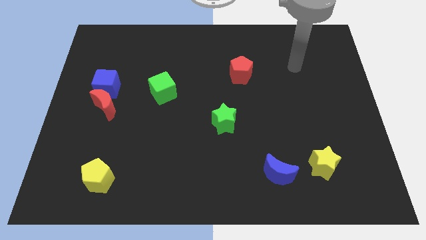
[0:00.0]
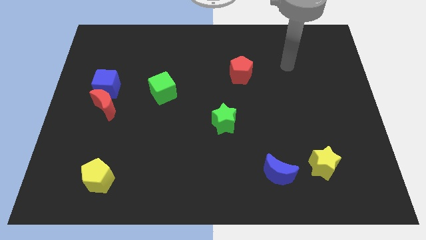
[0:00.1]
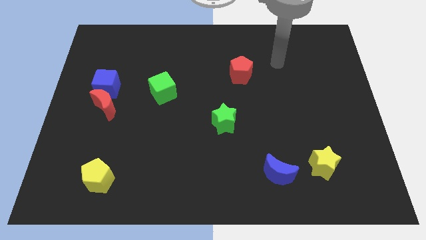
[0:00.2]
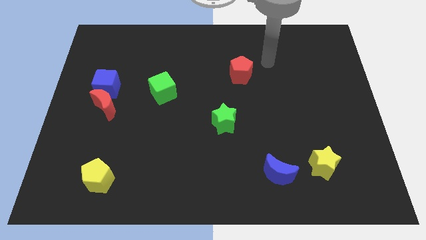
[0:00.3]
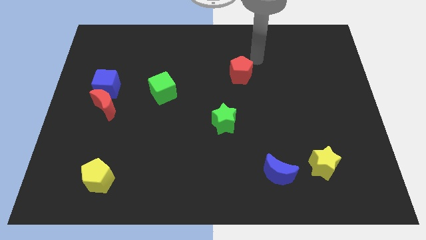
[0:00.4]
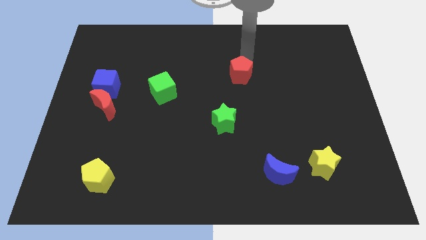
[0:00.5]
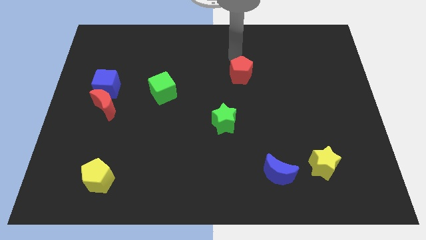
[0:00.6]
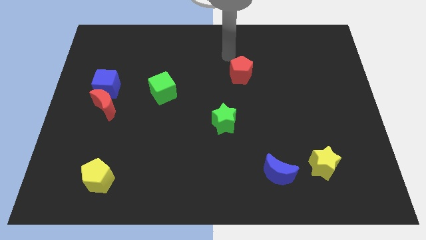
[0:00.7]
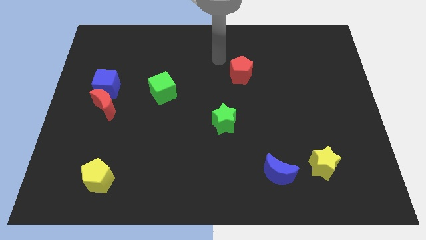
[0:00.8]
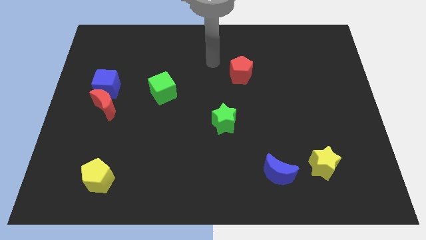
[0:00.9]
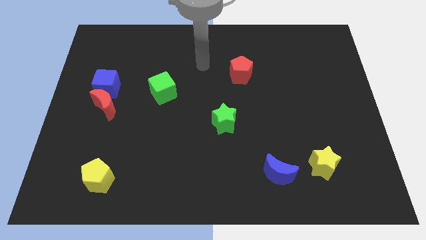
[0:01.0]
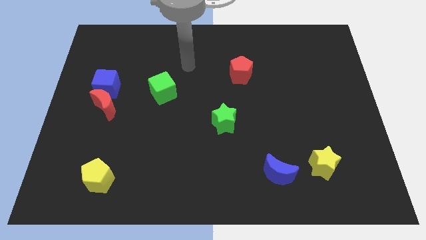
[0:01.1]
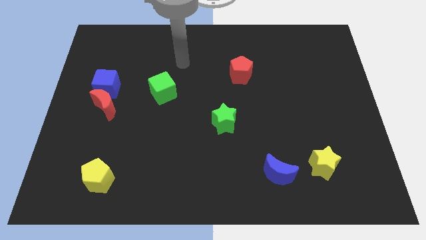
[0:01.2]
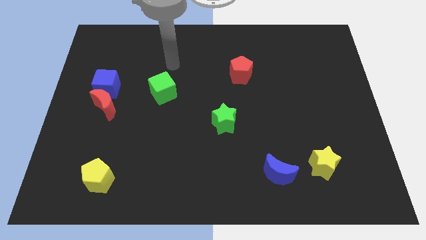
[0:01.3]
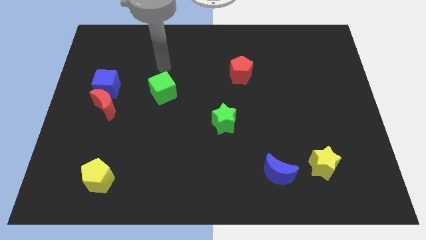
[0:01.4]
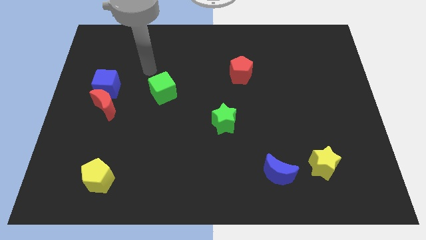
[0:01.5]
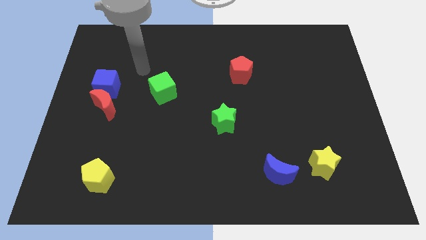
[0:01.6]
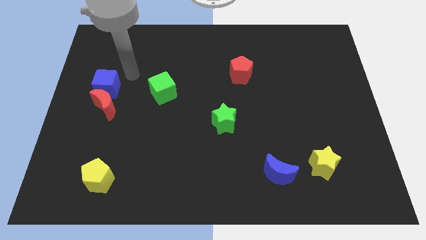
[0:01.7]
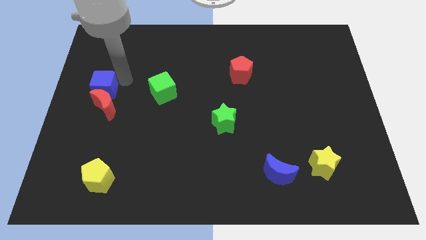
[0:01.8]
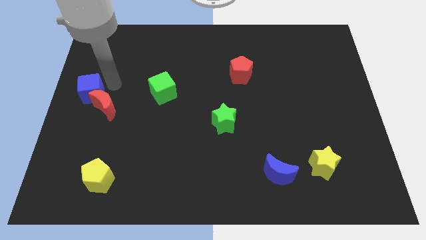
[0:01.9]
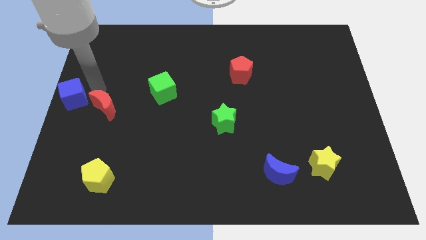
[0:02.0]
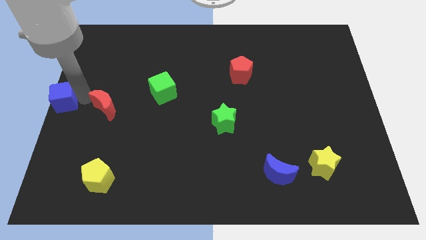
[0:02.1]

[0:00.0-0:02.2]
move the red moon away from the blue cube

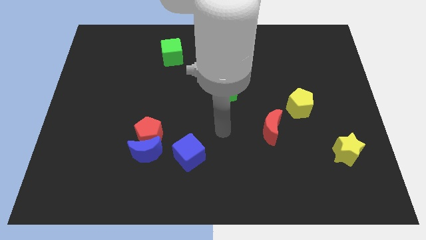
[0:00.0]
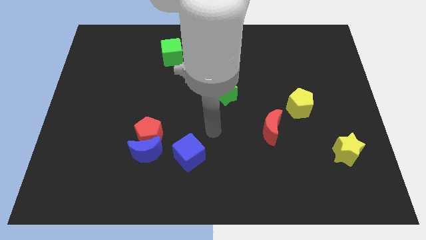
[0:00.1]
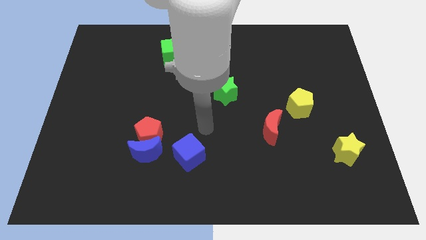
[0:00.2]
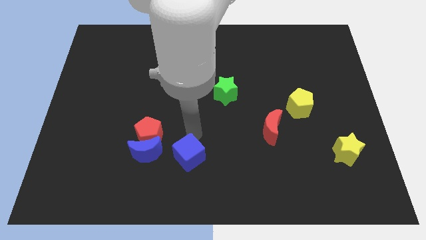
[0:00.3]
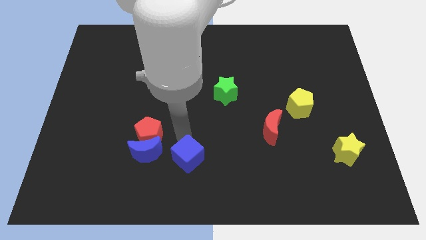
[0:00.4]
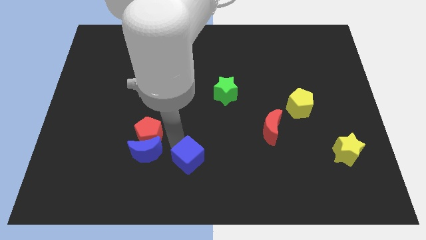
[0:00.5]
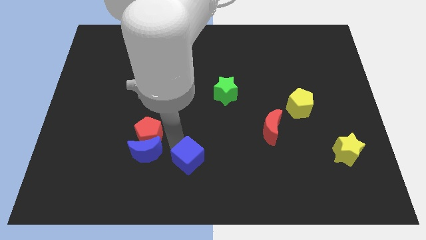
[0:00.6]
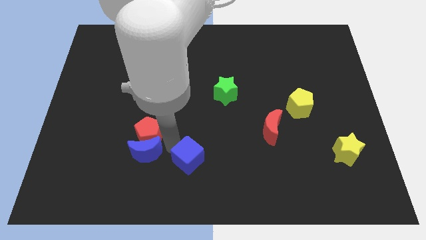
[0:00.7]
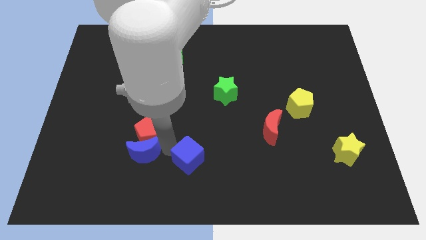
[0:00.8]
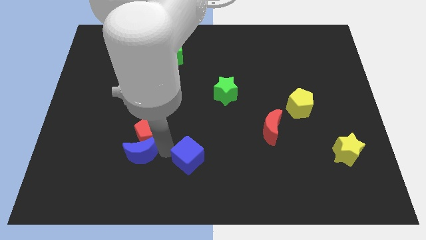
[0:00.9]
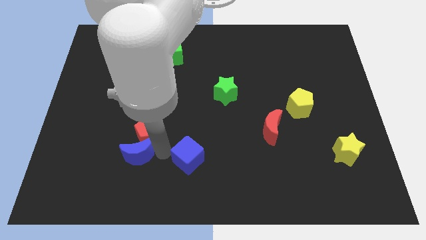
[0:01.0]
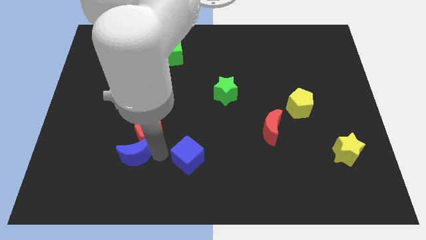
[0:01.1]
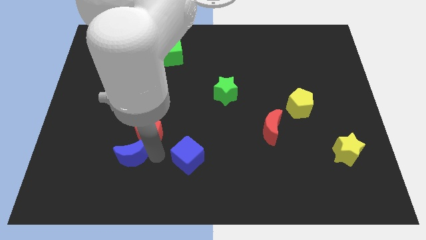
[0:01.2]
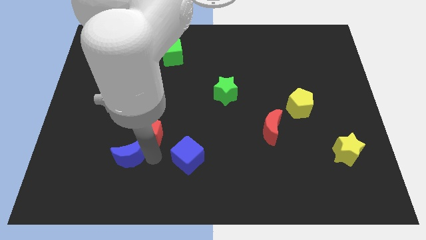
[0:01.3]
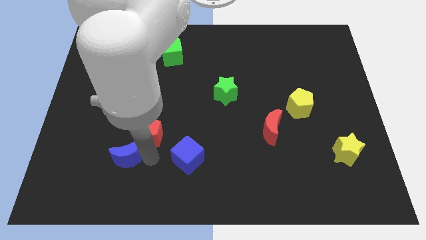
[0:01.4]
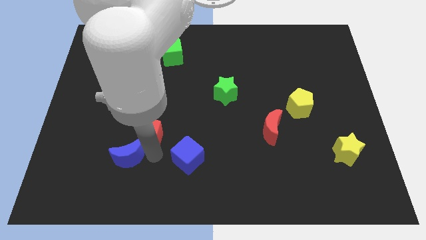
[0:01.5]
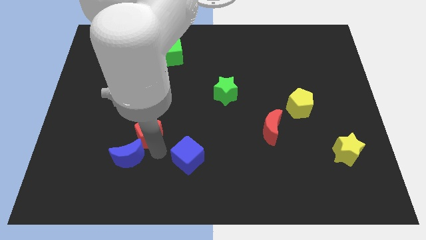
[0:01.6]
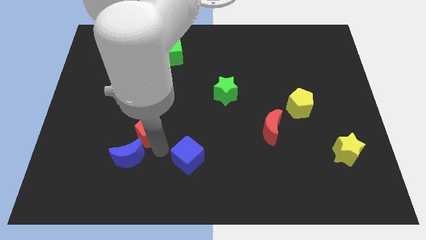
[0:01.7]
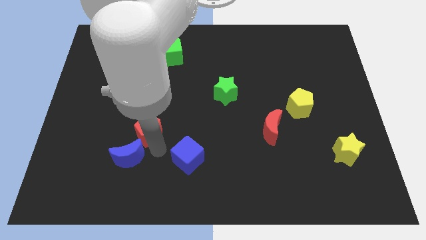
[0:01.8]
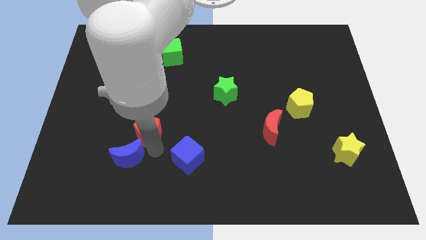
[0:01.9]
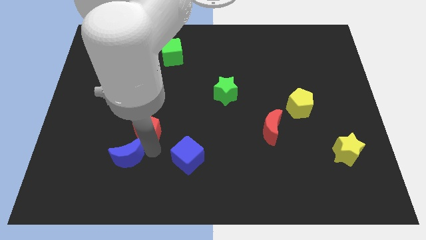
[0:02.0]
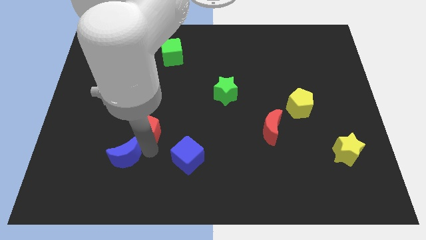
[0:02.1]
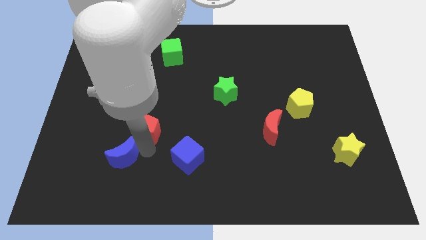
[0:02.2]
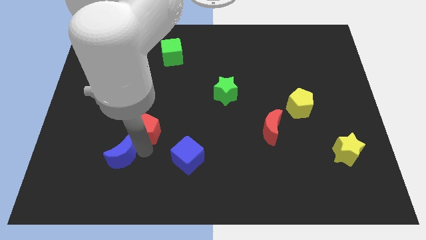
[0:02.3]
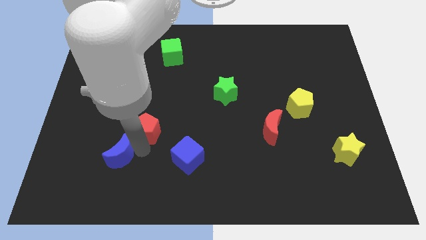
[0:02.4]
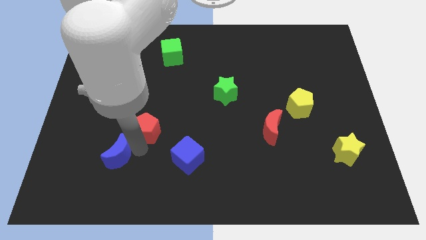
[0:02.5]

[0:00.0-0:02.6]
move the blue moon away from the red pentagon and blue cube

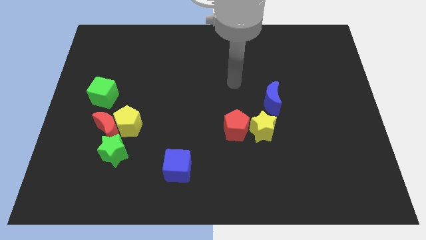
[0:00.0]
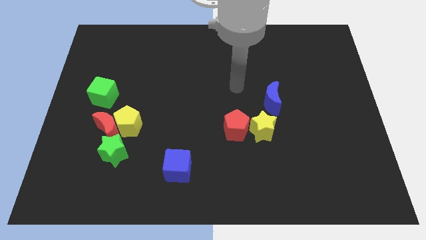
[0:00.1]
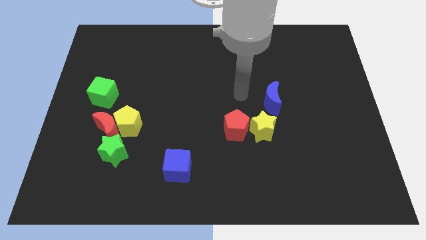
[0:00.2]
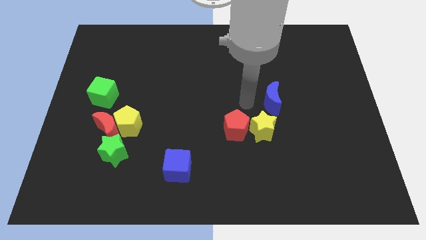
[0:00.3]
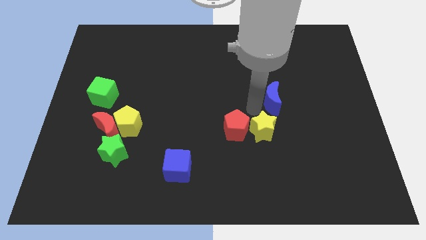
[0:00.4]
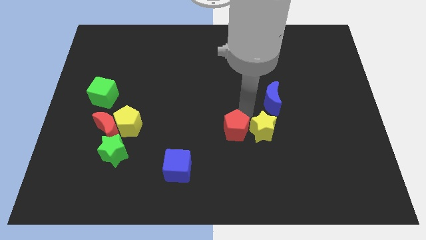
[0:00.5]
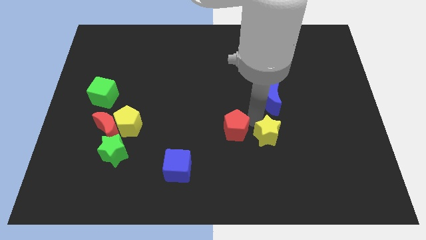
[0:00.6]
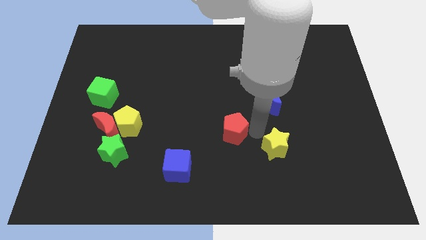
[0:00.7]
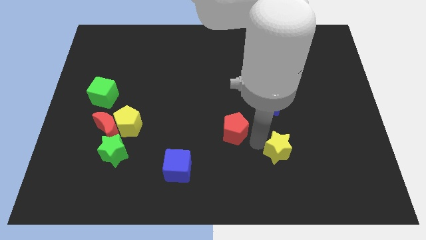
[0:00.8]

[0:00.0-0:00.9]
move the red pentagon away from the yellow star

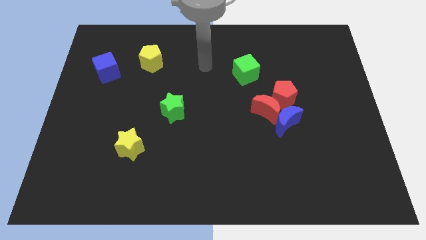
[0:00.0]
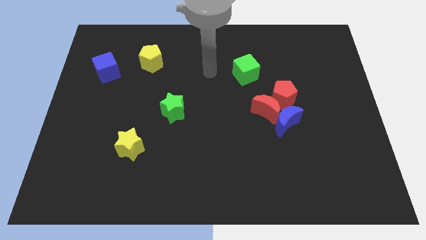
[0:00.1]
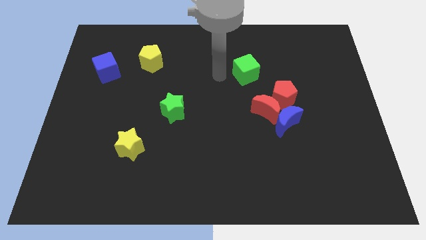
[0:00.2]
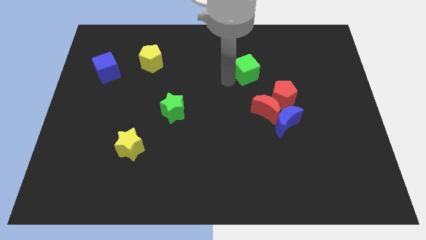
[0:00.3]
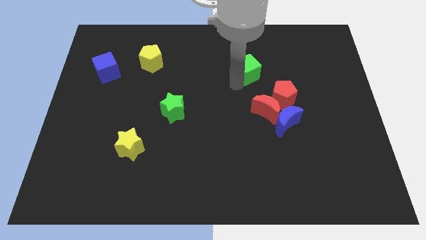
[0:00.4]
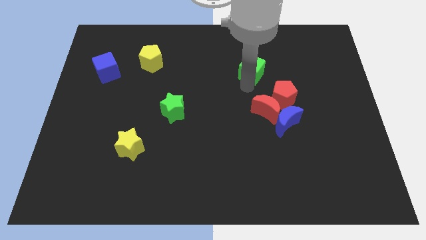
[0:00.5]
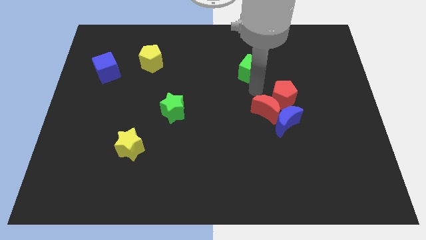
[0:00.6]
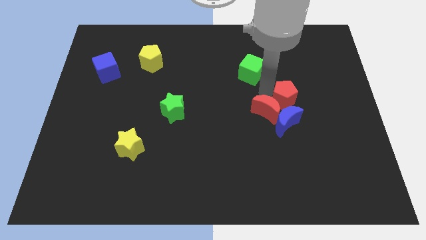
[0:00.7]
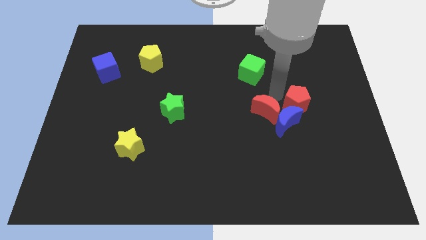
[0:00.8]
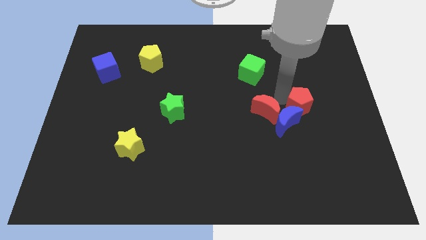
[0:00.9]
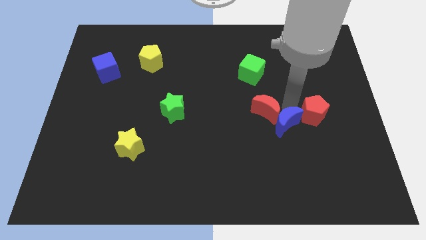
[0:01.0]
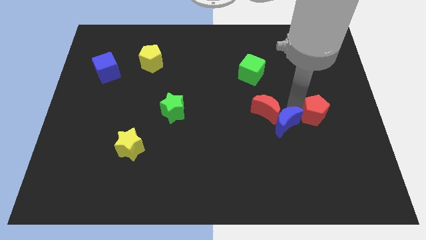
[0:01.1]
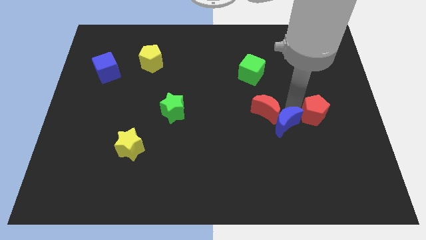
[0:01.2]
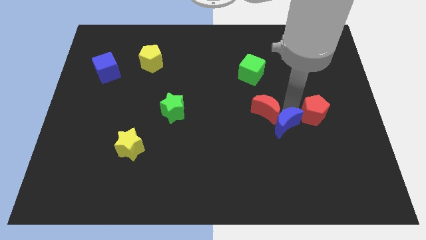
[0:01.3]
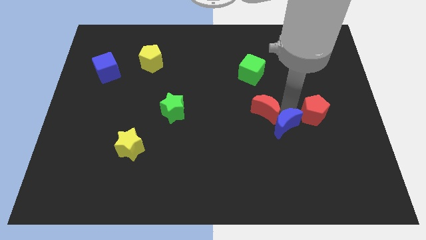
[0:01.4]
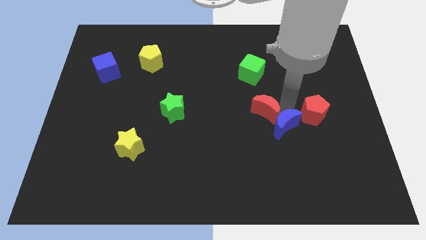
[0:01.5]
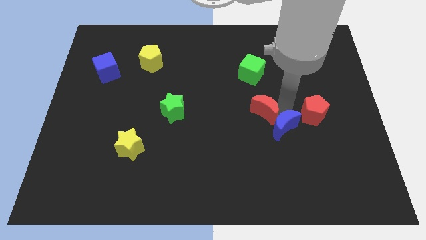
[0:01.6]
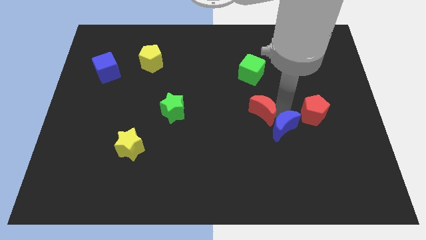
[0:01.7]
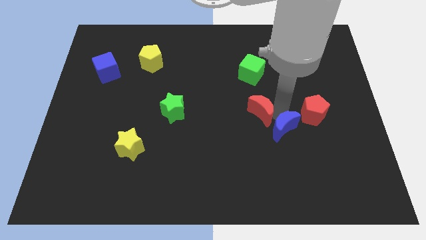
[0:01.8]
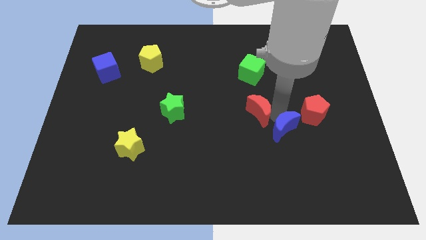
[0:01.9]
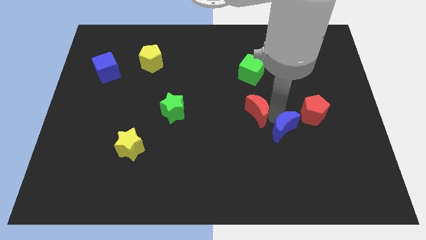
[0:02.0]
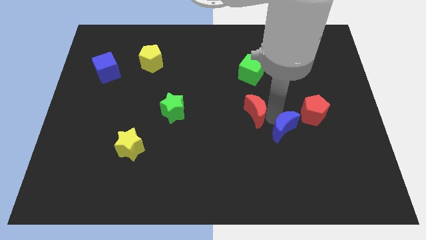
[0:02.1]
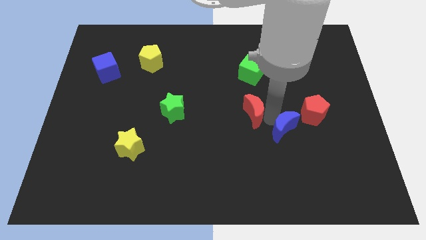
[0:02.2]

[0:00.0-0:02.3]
move the red moon away from the blue moon and red pentagon

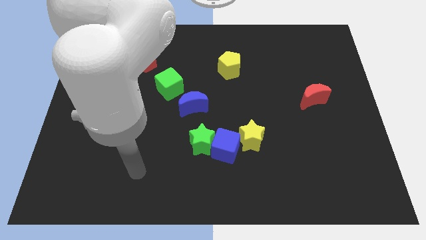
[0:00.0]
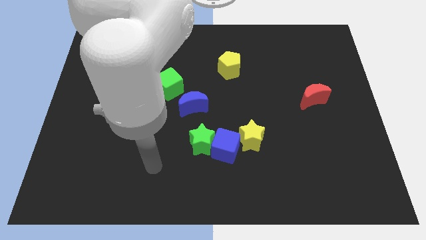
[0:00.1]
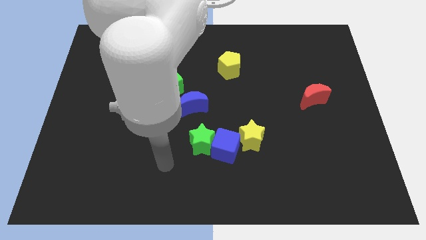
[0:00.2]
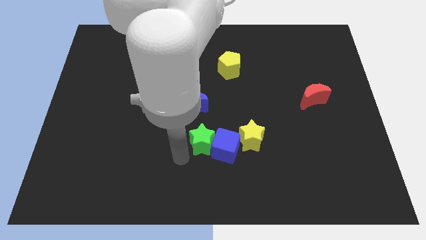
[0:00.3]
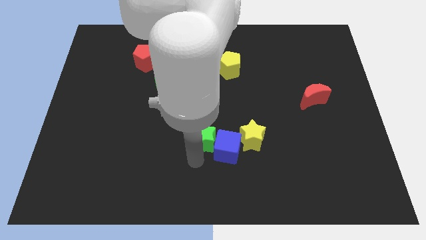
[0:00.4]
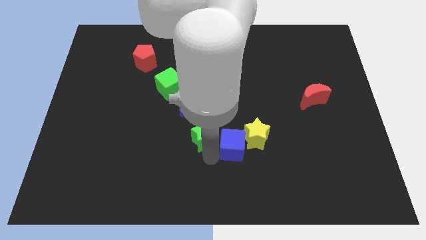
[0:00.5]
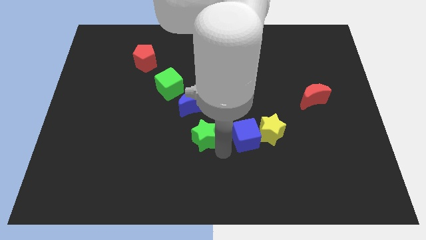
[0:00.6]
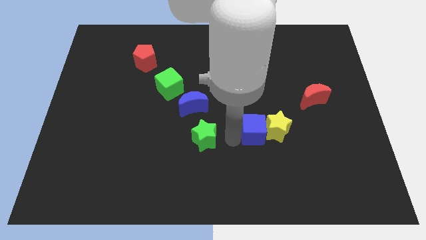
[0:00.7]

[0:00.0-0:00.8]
separate the green star from the blue cube

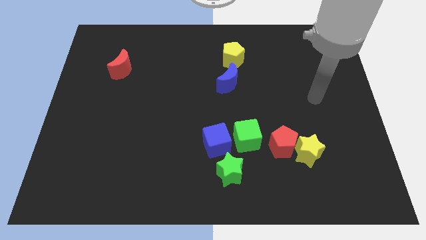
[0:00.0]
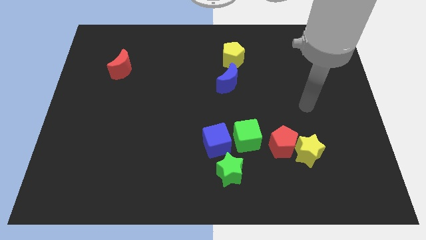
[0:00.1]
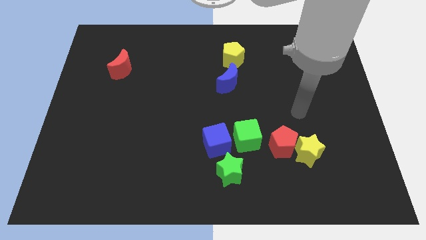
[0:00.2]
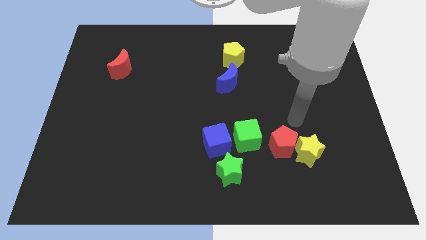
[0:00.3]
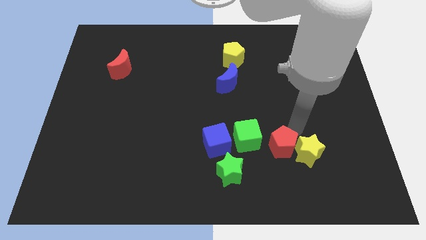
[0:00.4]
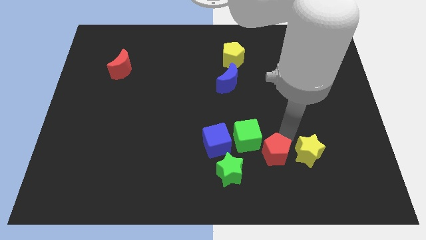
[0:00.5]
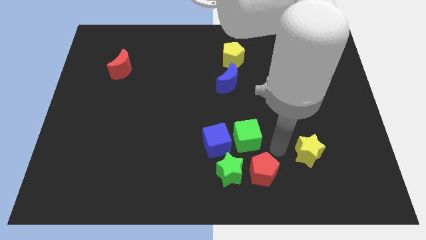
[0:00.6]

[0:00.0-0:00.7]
pull the yellow star apart from the red pentagon
